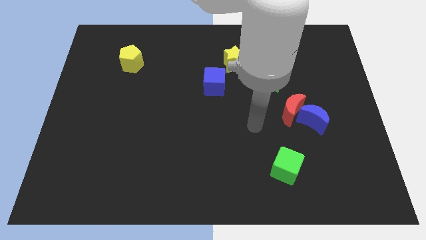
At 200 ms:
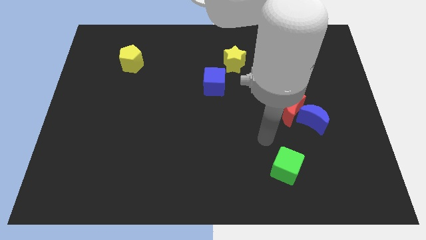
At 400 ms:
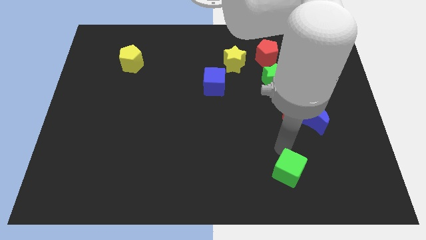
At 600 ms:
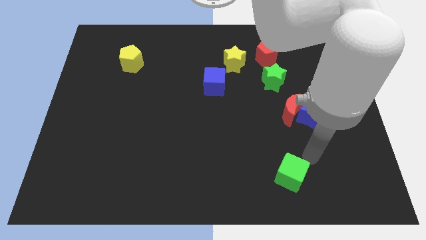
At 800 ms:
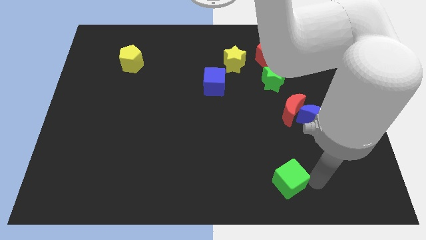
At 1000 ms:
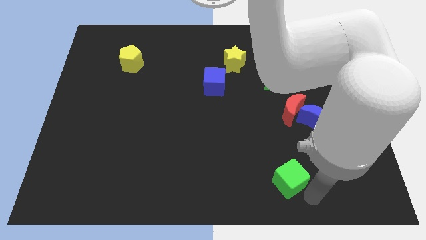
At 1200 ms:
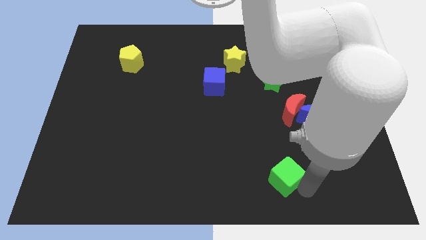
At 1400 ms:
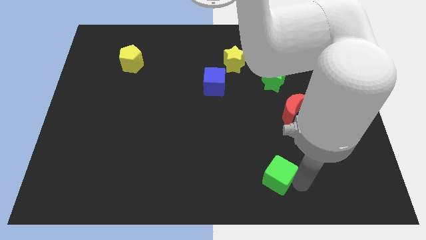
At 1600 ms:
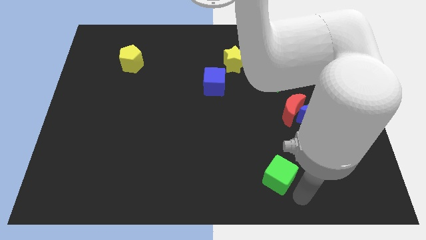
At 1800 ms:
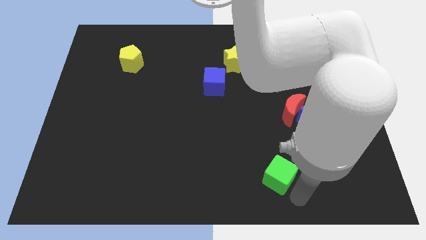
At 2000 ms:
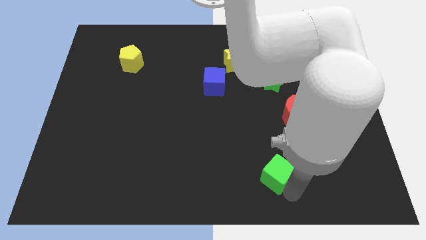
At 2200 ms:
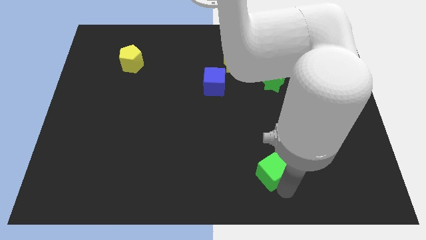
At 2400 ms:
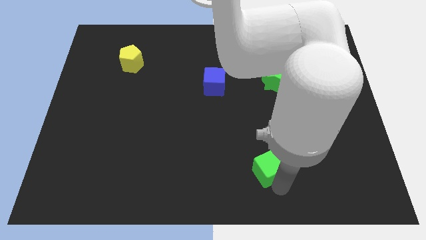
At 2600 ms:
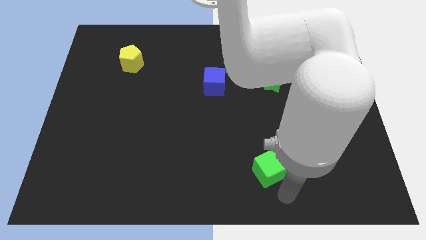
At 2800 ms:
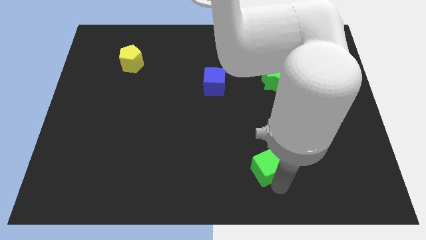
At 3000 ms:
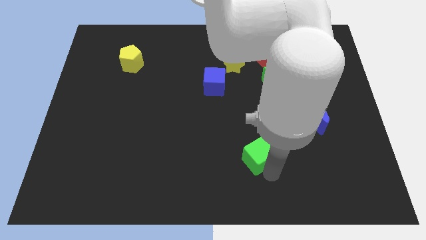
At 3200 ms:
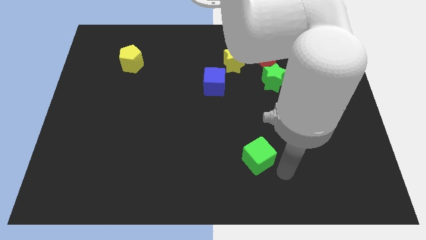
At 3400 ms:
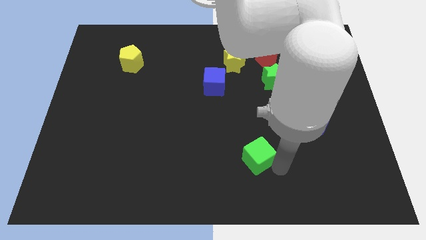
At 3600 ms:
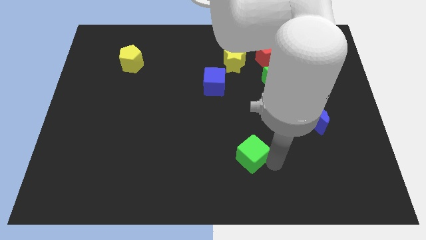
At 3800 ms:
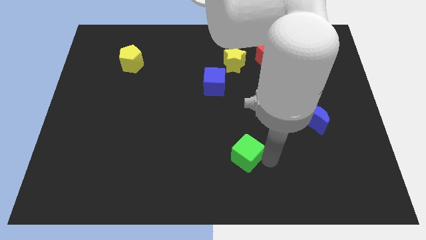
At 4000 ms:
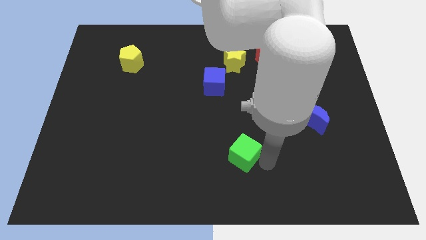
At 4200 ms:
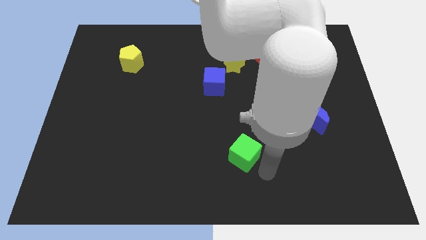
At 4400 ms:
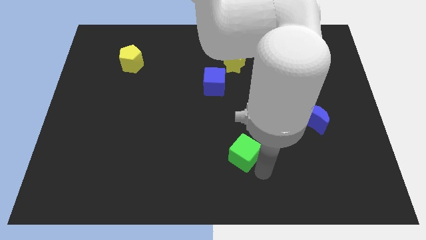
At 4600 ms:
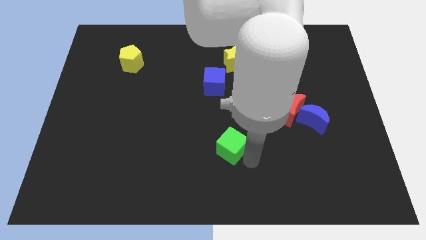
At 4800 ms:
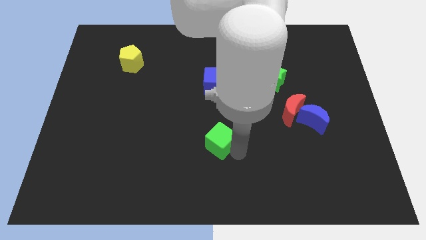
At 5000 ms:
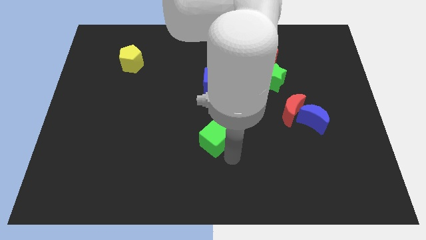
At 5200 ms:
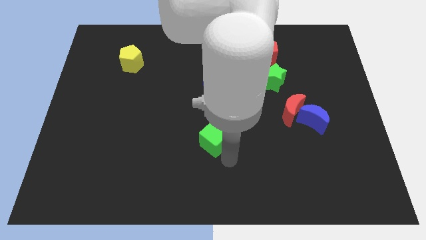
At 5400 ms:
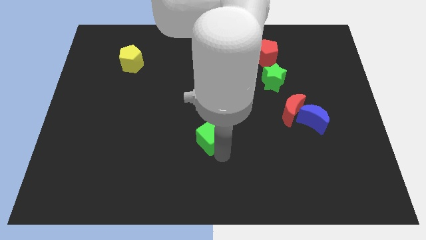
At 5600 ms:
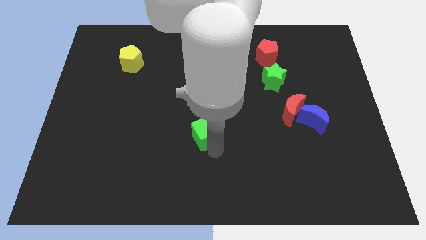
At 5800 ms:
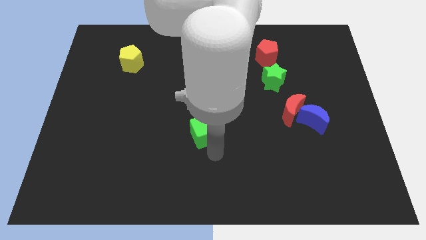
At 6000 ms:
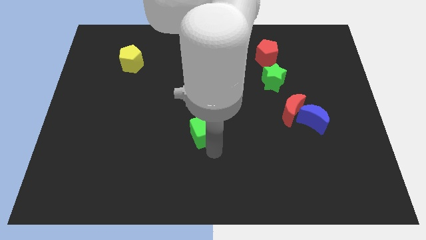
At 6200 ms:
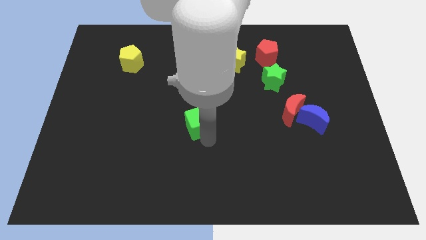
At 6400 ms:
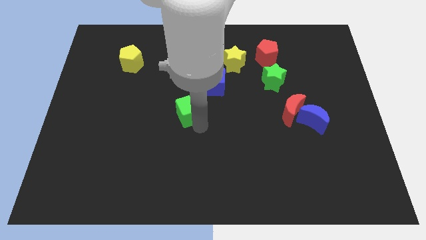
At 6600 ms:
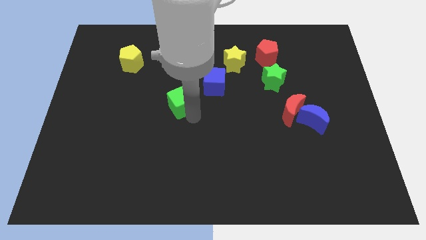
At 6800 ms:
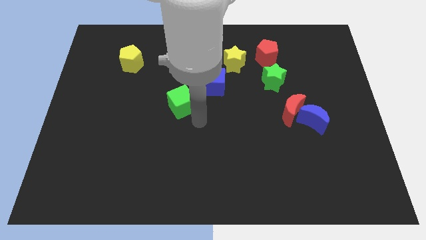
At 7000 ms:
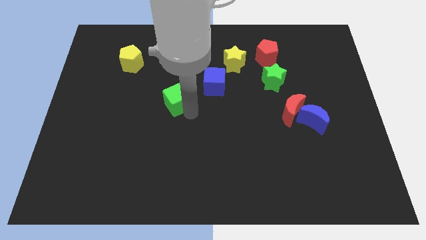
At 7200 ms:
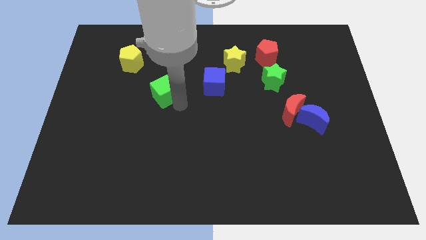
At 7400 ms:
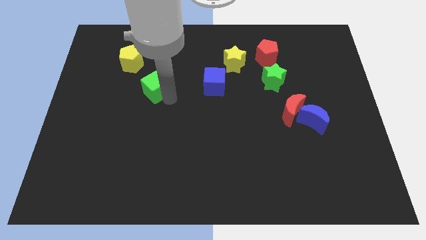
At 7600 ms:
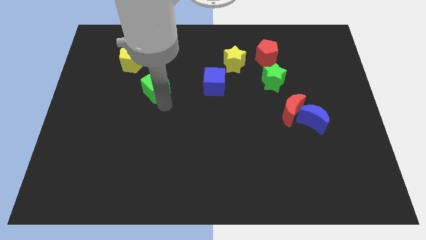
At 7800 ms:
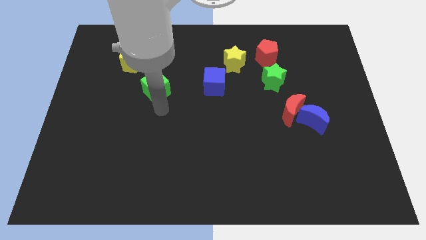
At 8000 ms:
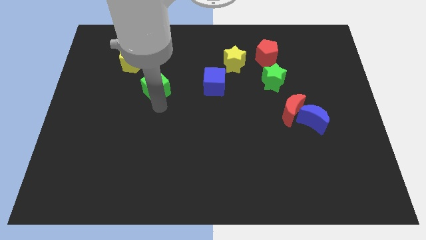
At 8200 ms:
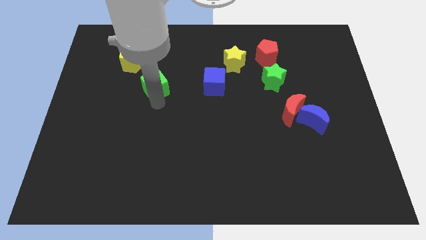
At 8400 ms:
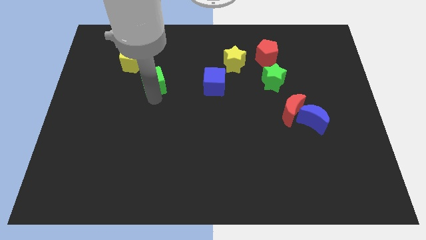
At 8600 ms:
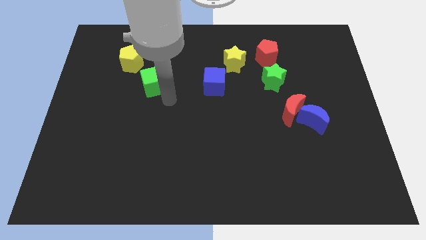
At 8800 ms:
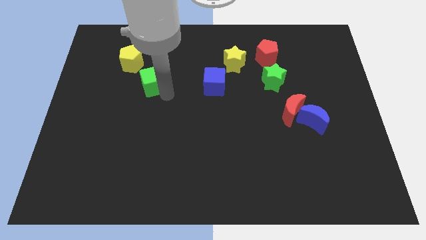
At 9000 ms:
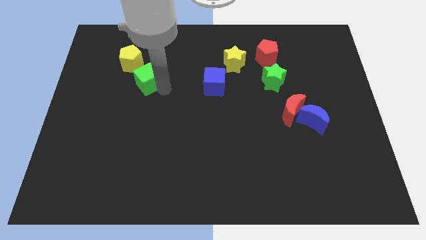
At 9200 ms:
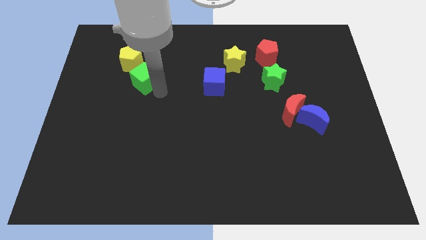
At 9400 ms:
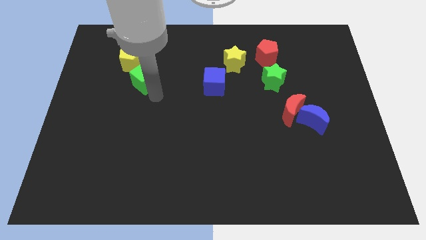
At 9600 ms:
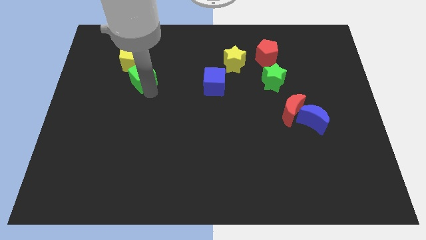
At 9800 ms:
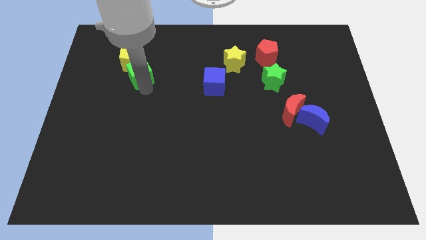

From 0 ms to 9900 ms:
put the green cube to the yellow pentagon

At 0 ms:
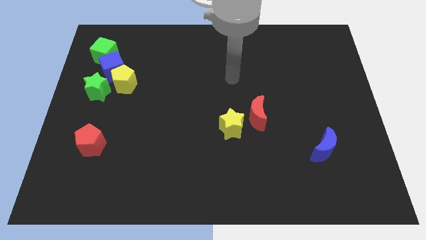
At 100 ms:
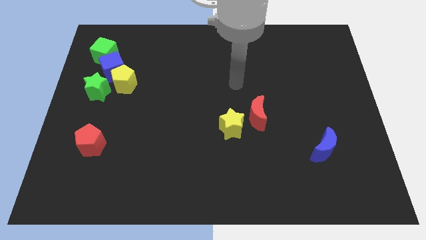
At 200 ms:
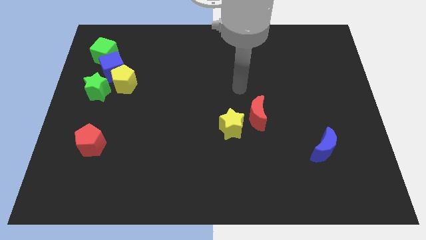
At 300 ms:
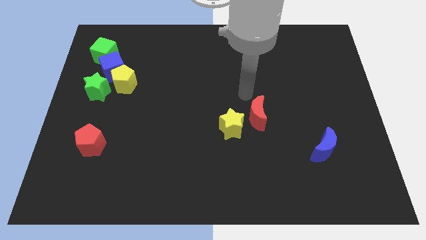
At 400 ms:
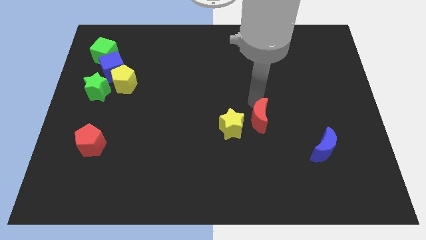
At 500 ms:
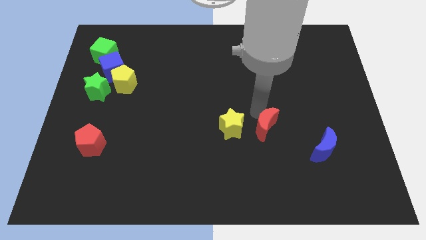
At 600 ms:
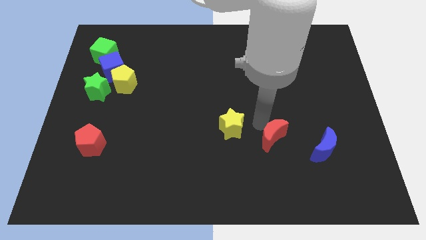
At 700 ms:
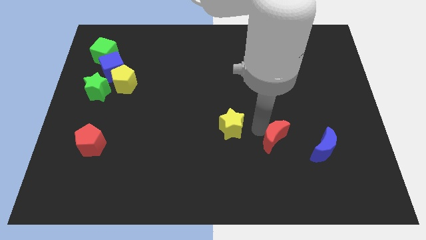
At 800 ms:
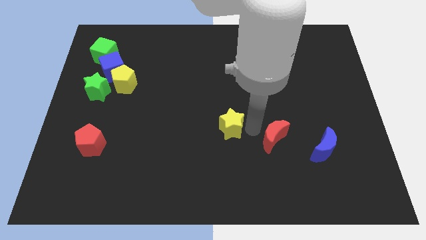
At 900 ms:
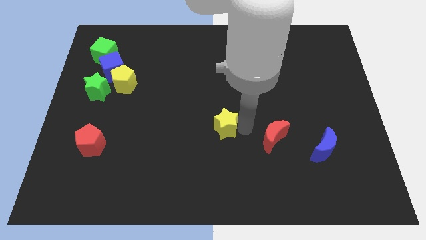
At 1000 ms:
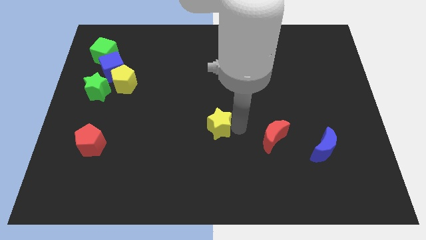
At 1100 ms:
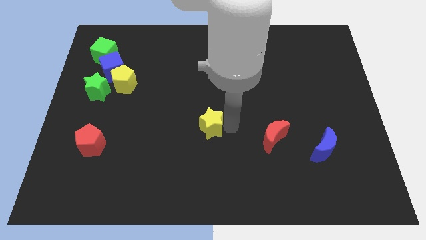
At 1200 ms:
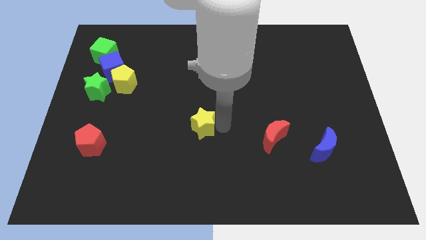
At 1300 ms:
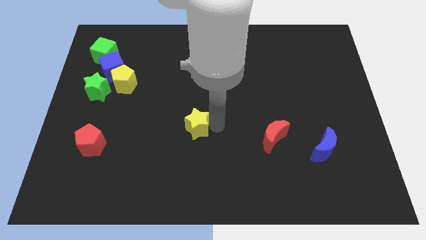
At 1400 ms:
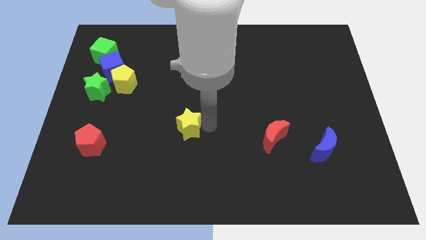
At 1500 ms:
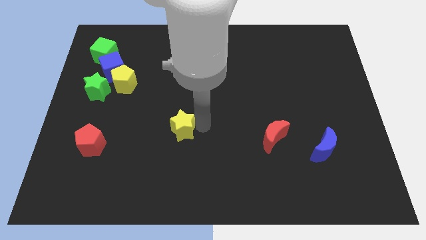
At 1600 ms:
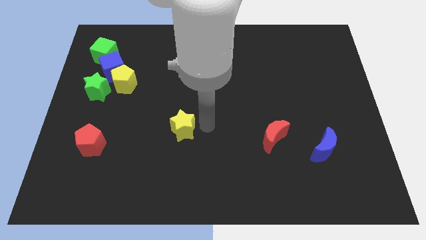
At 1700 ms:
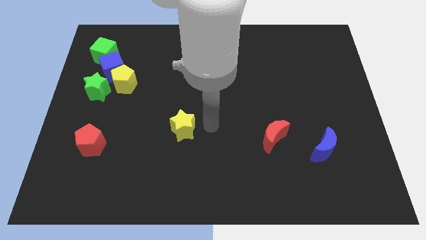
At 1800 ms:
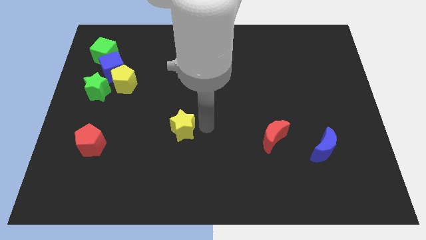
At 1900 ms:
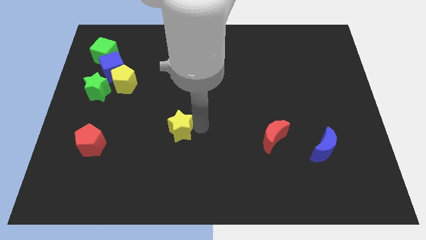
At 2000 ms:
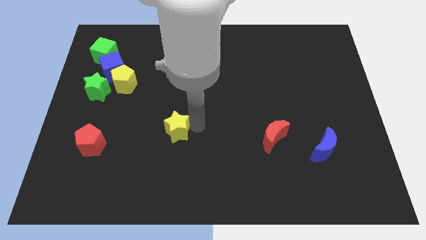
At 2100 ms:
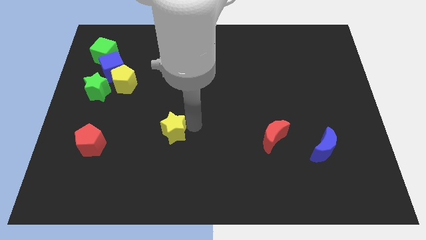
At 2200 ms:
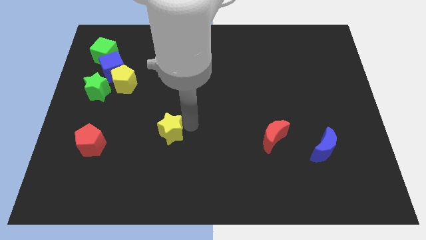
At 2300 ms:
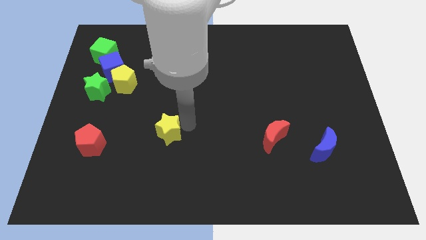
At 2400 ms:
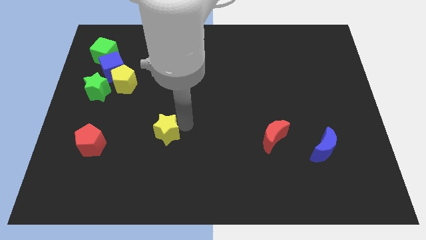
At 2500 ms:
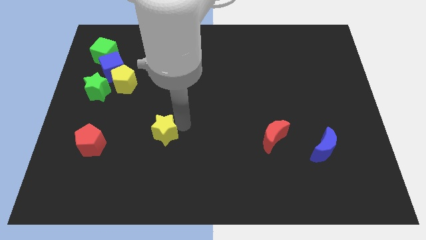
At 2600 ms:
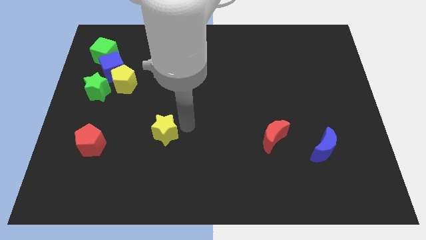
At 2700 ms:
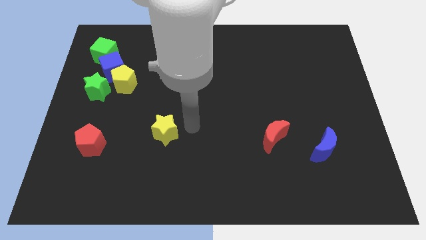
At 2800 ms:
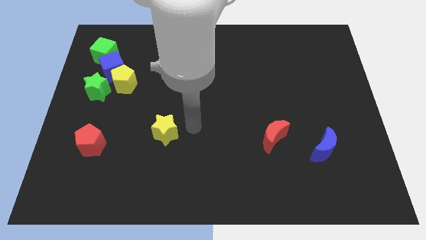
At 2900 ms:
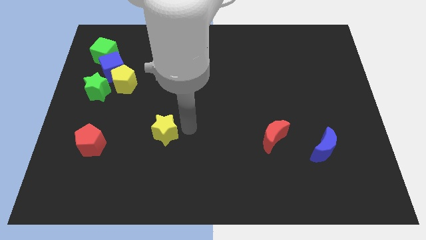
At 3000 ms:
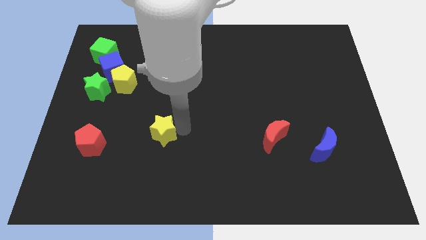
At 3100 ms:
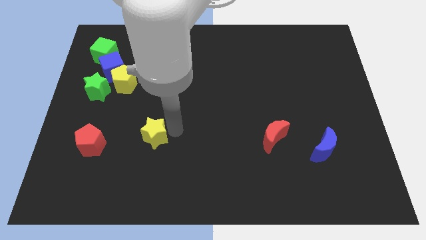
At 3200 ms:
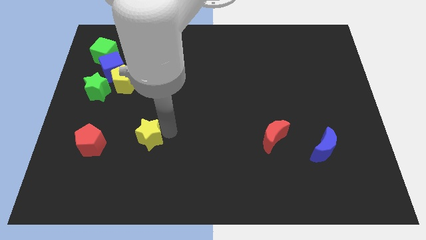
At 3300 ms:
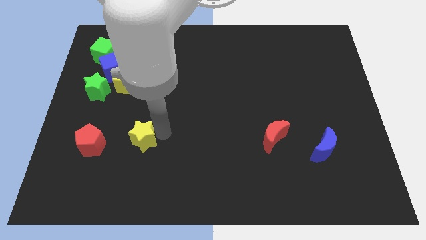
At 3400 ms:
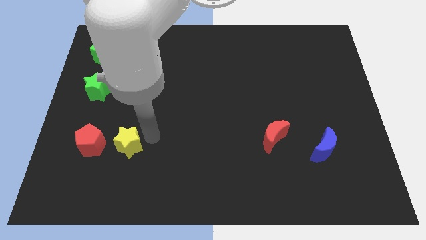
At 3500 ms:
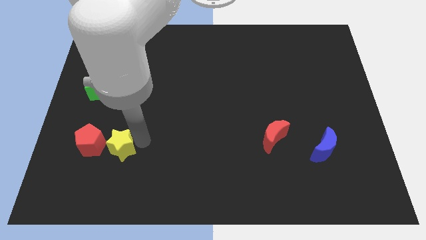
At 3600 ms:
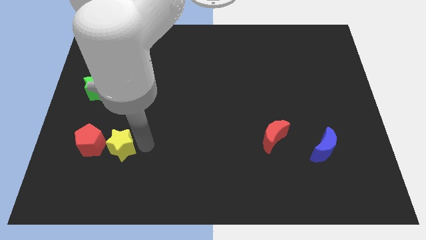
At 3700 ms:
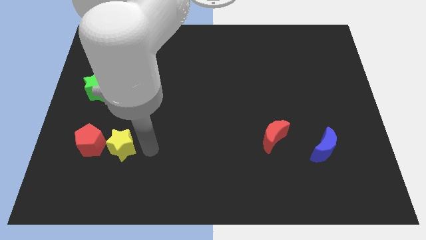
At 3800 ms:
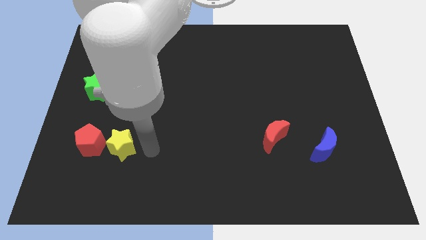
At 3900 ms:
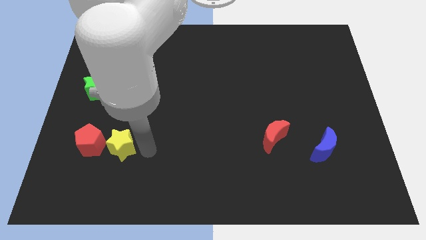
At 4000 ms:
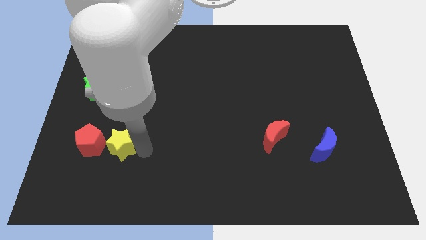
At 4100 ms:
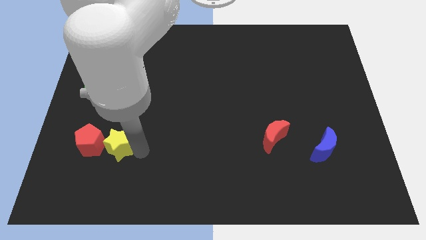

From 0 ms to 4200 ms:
push the yellow star towards the red pentagon
